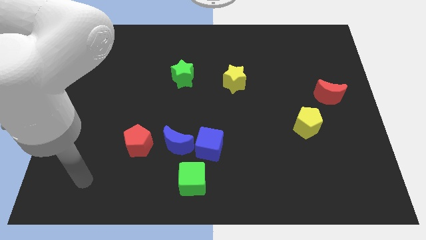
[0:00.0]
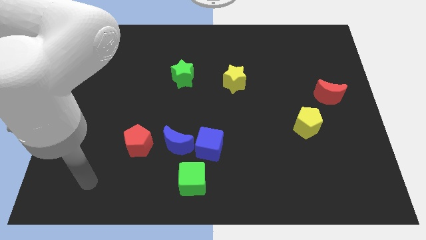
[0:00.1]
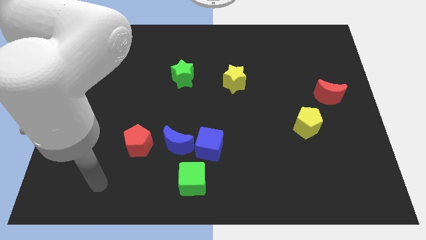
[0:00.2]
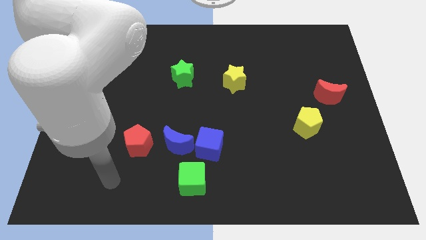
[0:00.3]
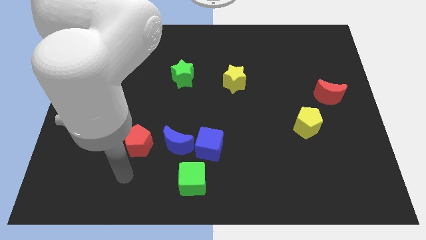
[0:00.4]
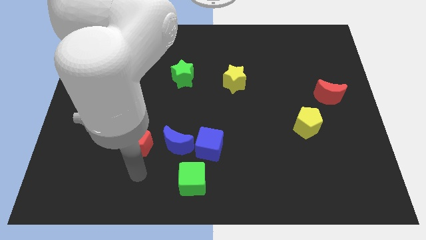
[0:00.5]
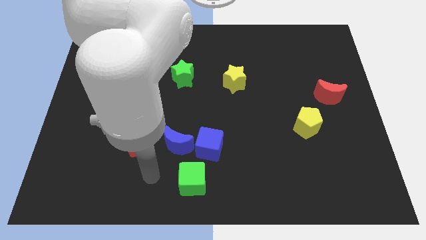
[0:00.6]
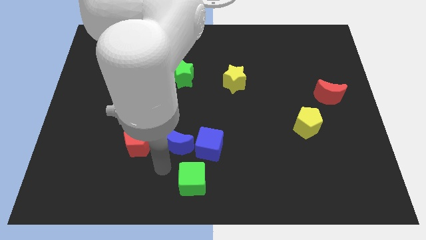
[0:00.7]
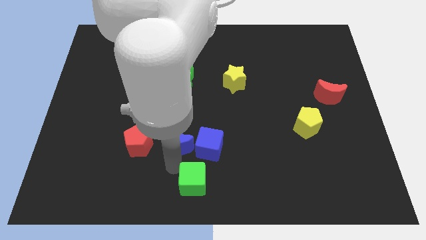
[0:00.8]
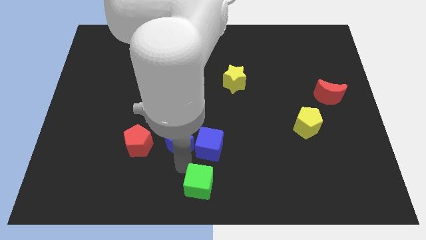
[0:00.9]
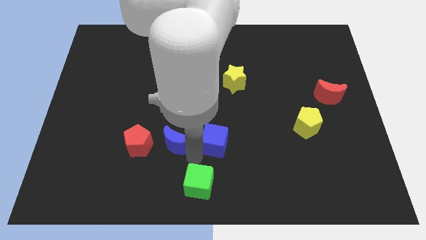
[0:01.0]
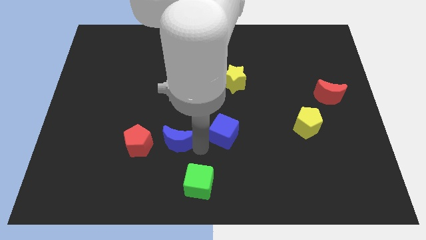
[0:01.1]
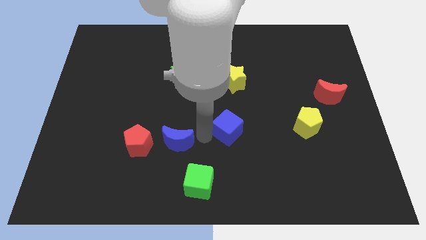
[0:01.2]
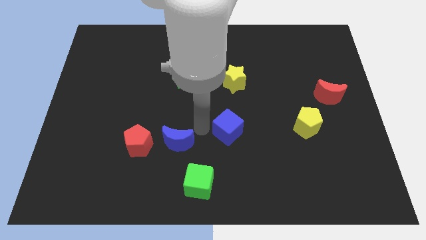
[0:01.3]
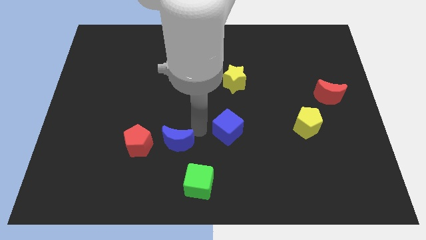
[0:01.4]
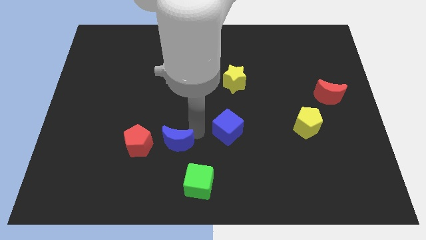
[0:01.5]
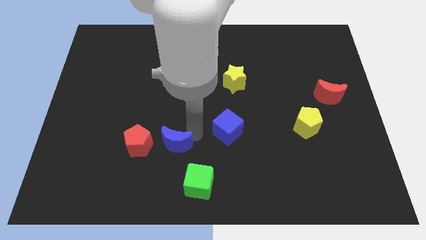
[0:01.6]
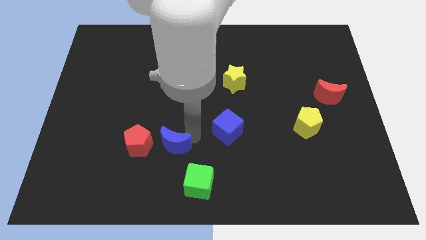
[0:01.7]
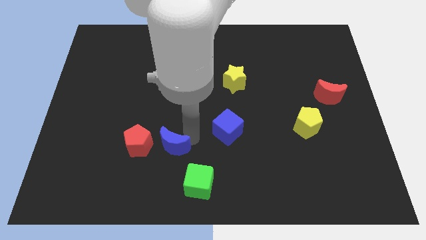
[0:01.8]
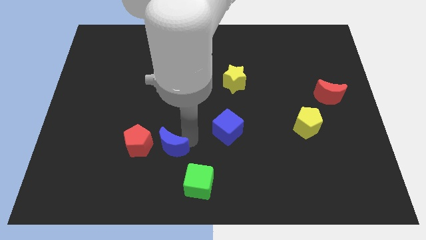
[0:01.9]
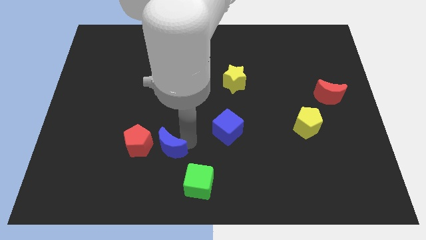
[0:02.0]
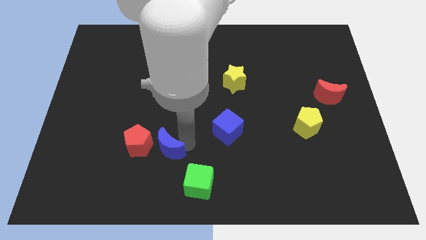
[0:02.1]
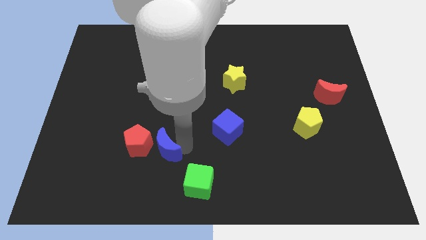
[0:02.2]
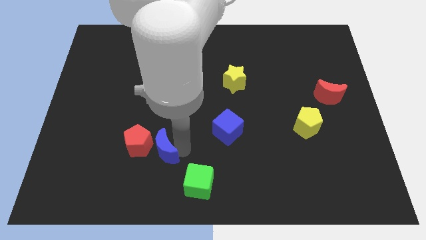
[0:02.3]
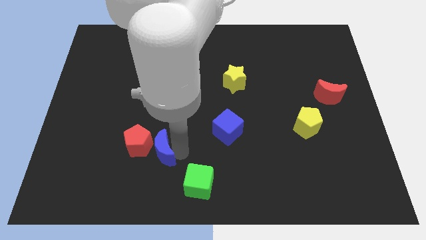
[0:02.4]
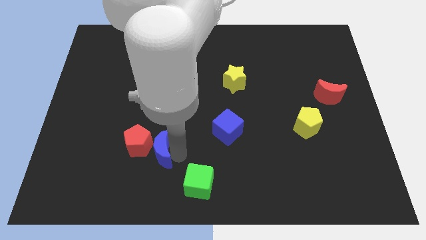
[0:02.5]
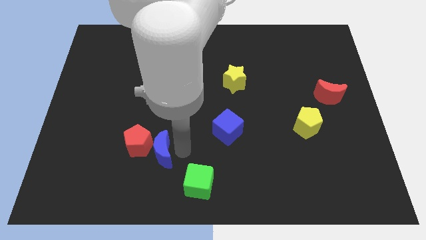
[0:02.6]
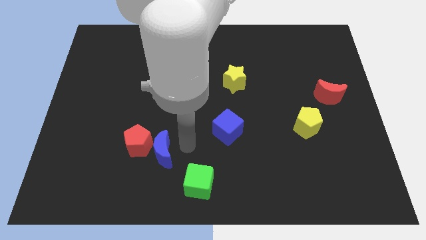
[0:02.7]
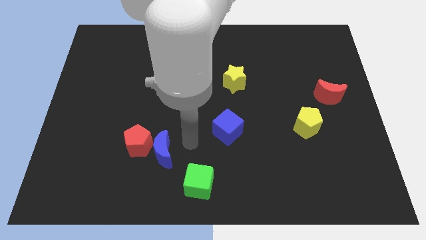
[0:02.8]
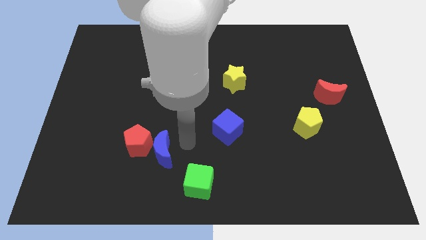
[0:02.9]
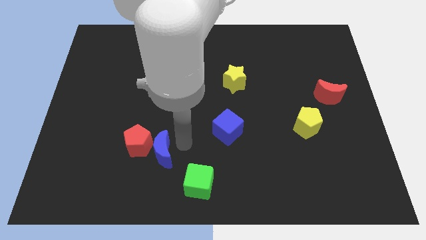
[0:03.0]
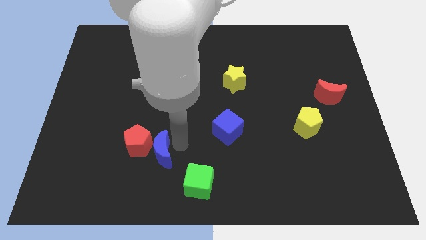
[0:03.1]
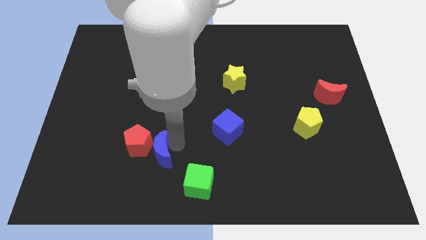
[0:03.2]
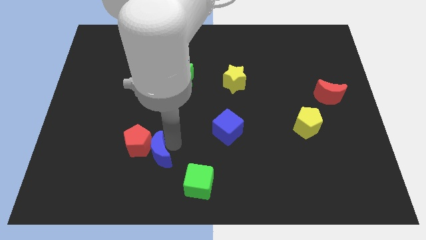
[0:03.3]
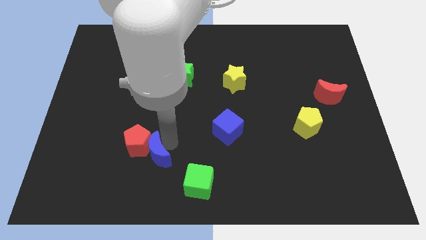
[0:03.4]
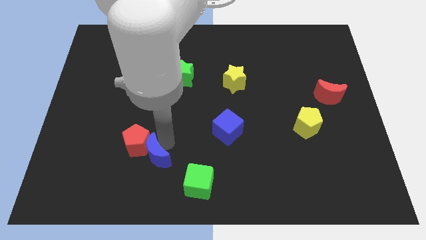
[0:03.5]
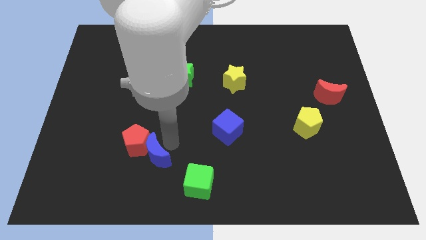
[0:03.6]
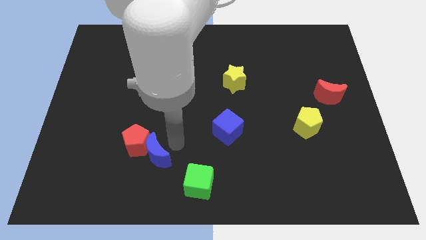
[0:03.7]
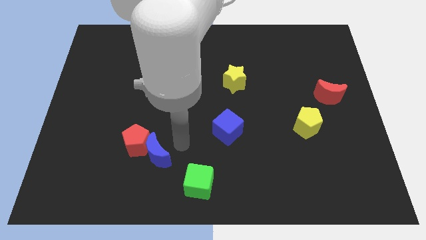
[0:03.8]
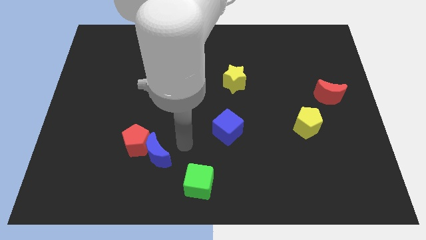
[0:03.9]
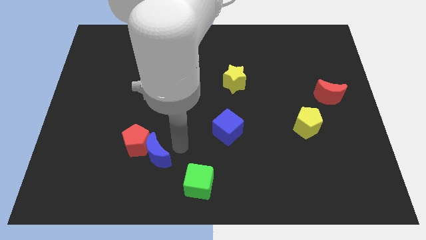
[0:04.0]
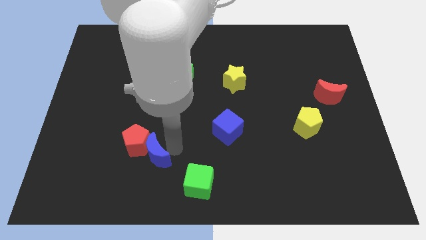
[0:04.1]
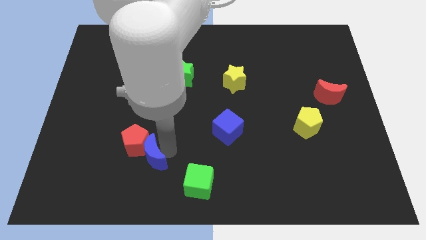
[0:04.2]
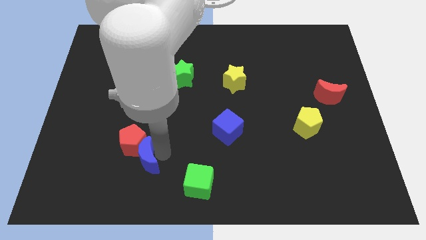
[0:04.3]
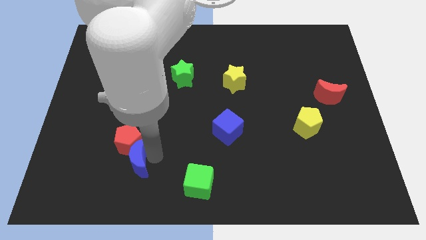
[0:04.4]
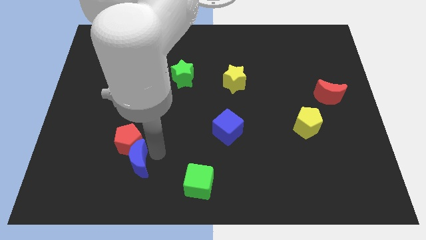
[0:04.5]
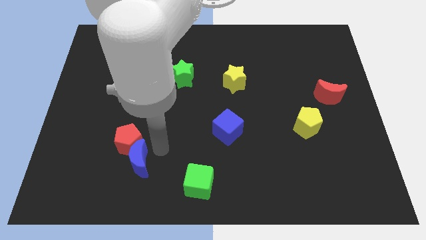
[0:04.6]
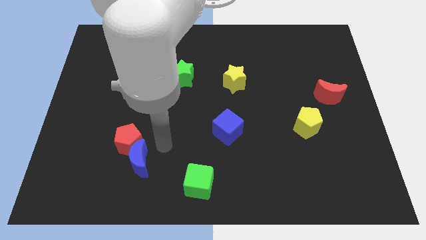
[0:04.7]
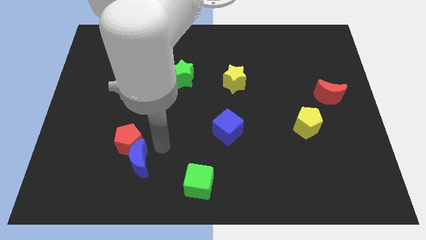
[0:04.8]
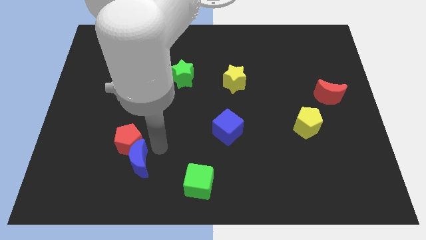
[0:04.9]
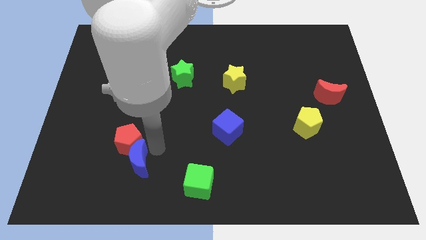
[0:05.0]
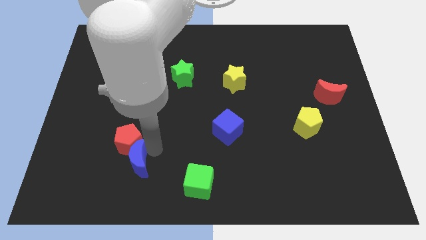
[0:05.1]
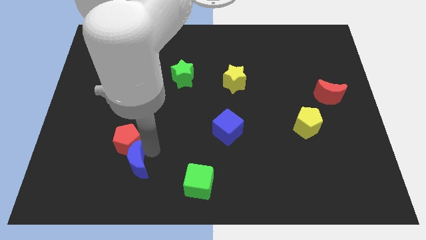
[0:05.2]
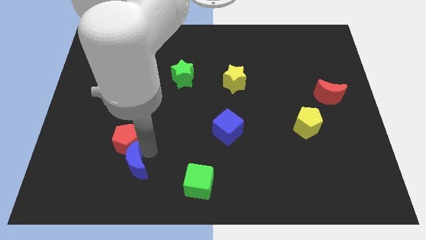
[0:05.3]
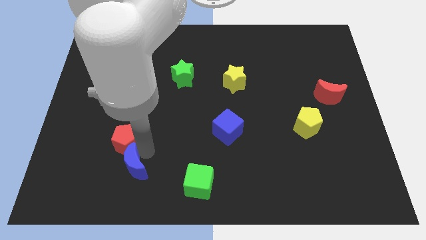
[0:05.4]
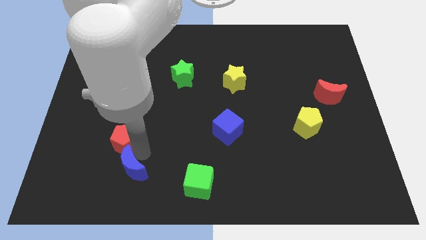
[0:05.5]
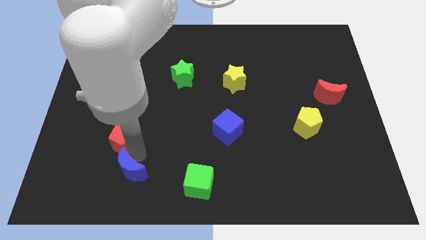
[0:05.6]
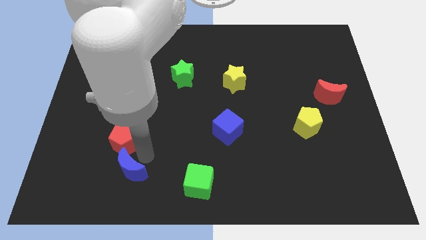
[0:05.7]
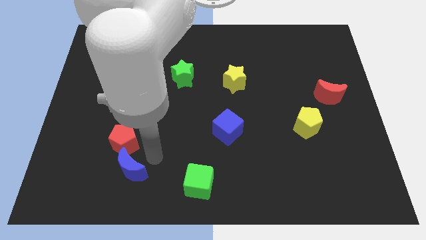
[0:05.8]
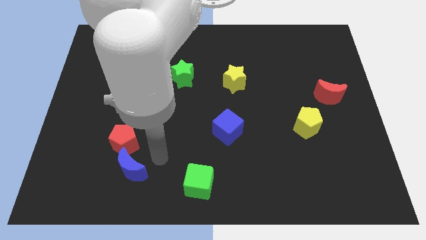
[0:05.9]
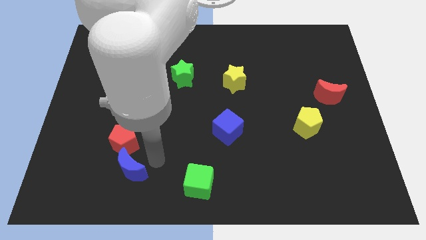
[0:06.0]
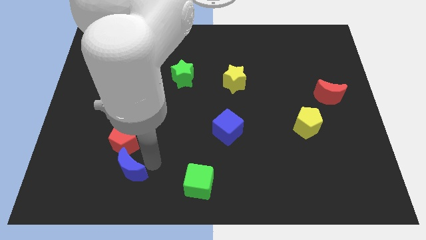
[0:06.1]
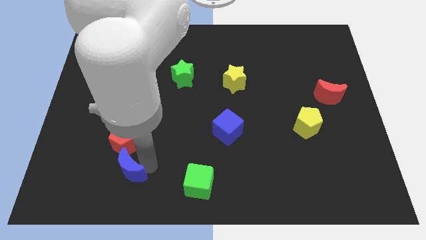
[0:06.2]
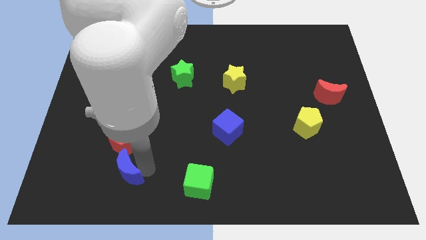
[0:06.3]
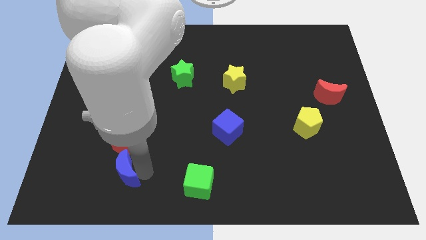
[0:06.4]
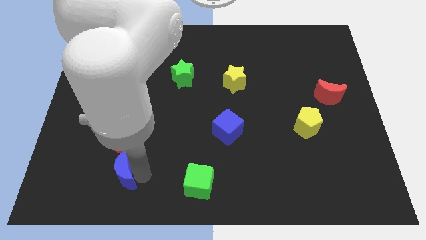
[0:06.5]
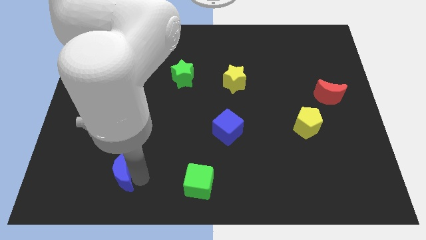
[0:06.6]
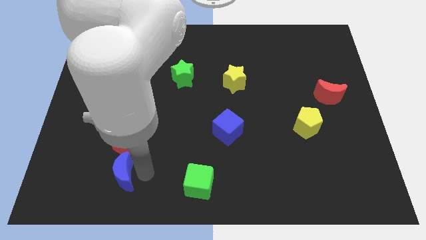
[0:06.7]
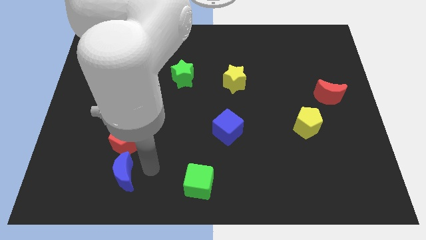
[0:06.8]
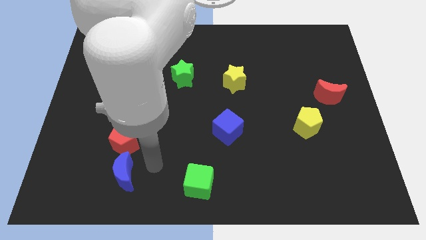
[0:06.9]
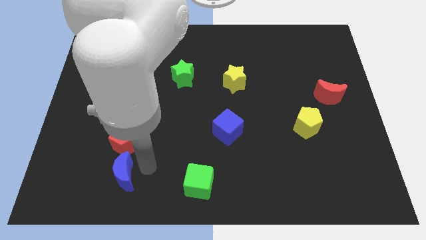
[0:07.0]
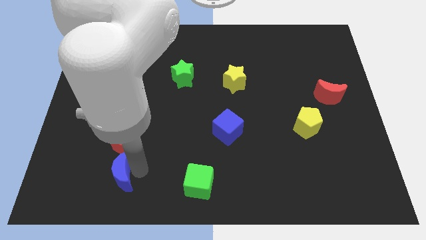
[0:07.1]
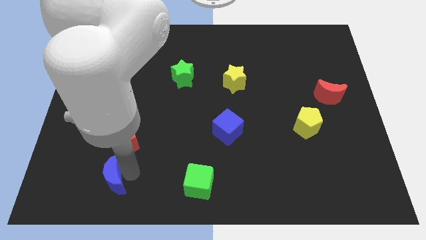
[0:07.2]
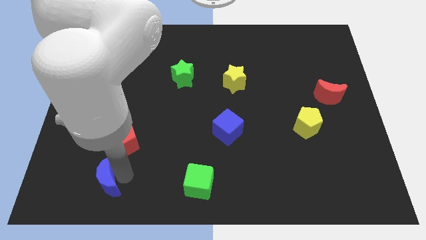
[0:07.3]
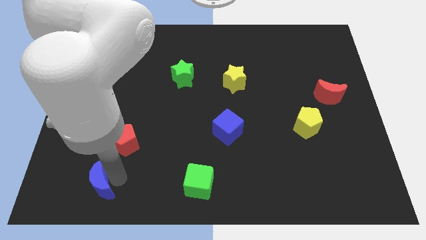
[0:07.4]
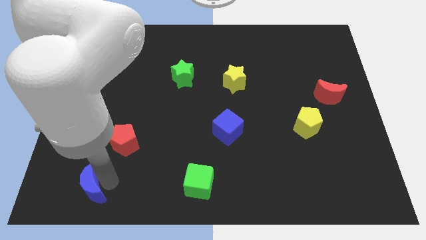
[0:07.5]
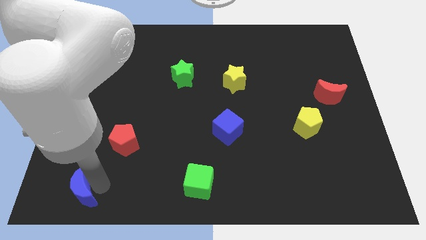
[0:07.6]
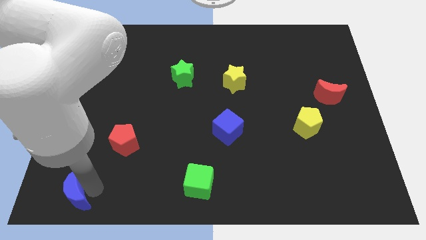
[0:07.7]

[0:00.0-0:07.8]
put the blue moon to the bottom left
